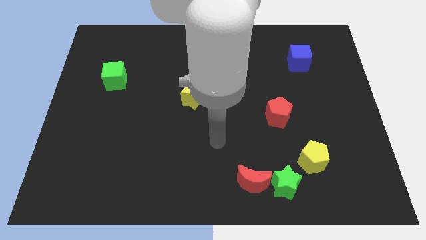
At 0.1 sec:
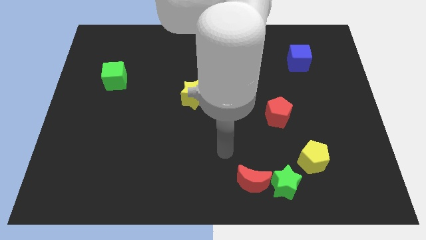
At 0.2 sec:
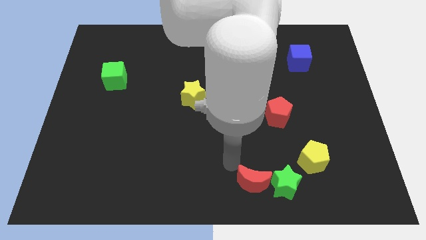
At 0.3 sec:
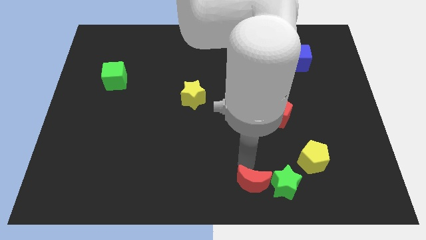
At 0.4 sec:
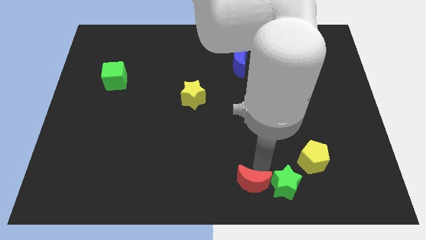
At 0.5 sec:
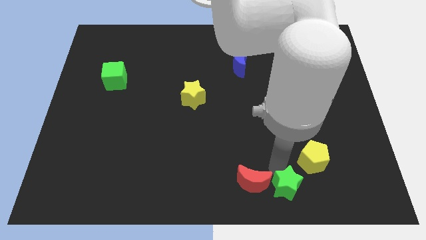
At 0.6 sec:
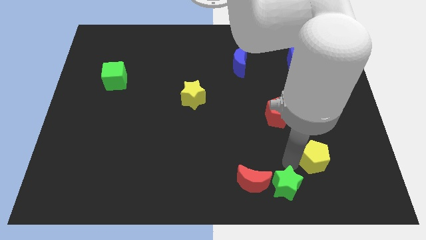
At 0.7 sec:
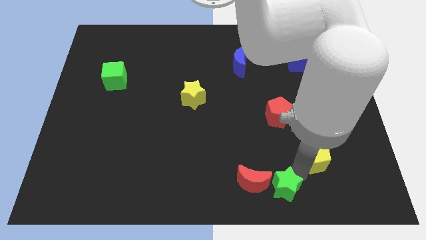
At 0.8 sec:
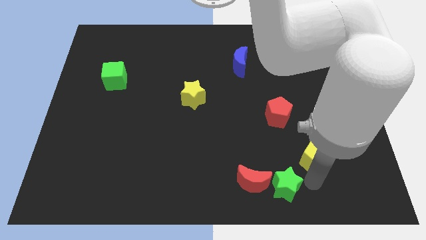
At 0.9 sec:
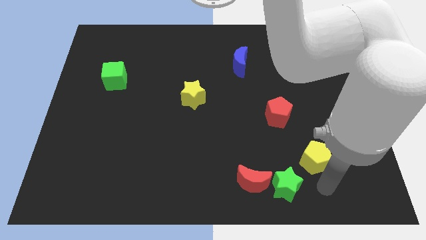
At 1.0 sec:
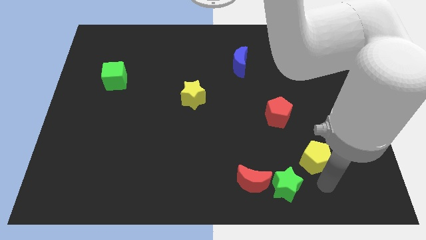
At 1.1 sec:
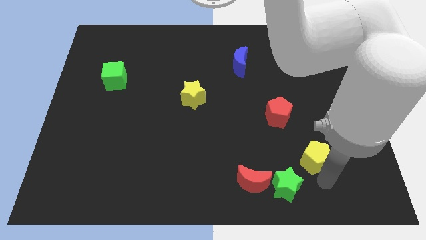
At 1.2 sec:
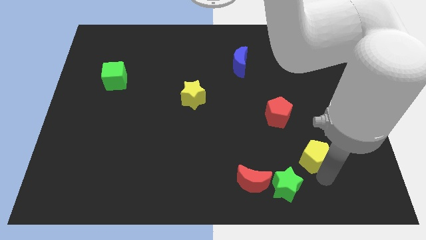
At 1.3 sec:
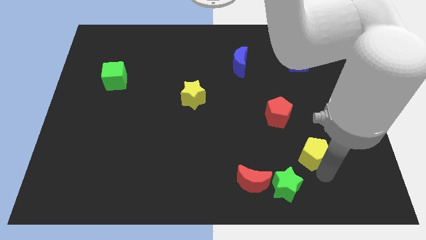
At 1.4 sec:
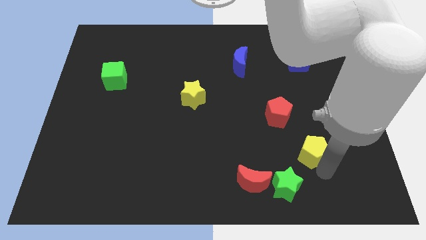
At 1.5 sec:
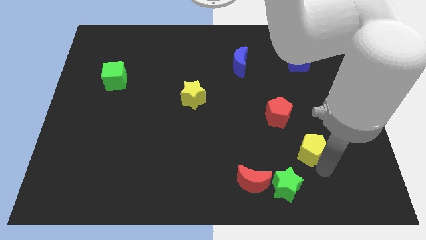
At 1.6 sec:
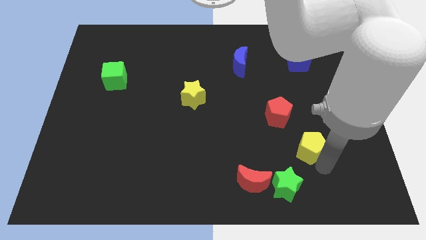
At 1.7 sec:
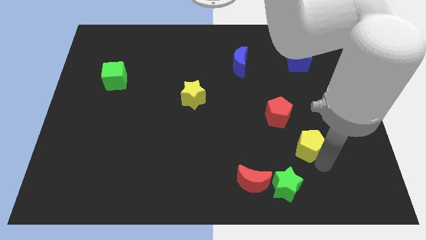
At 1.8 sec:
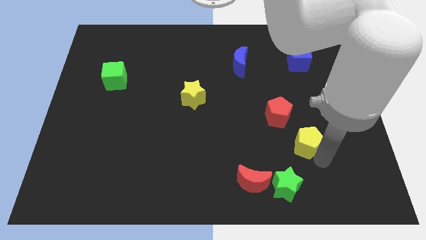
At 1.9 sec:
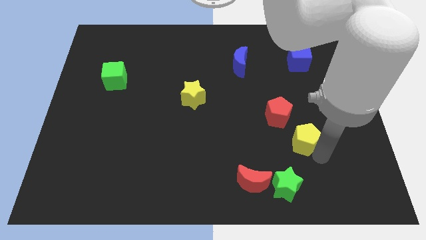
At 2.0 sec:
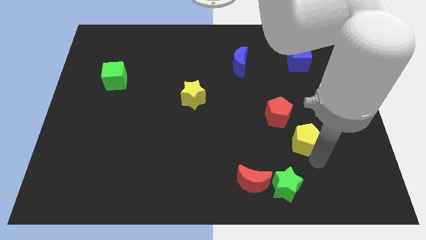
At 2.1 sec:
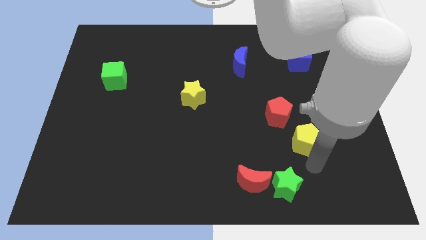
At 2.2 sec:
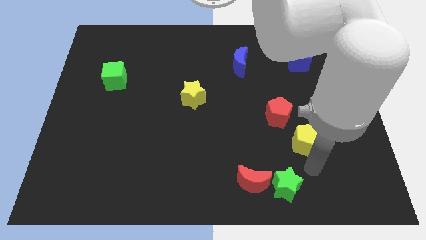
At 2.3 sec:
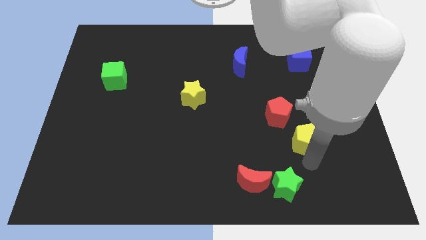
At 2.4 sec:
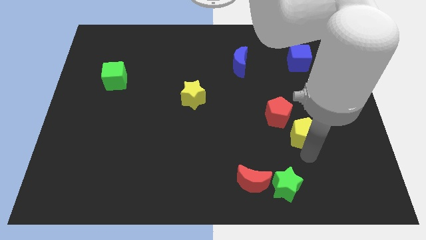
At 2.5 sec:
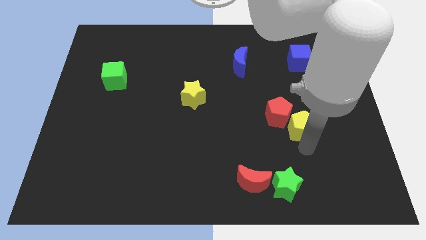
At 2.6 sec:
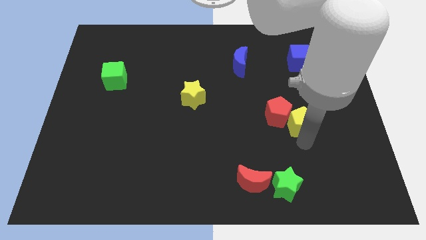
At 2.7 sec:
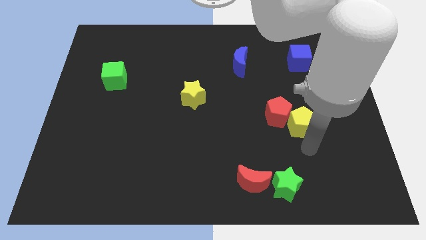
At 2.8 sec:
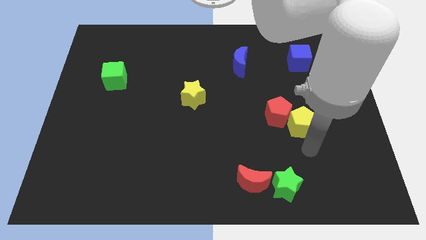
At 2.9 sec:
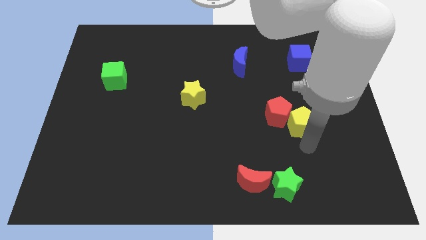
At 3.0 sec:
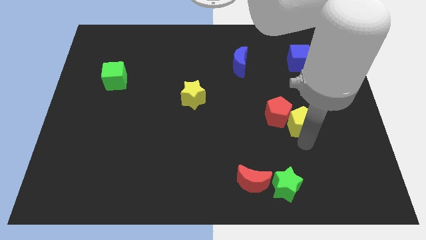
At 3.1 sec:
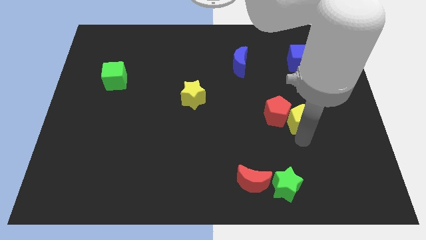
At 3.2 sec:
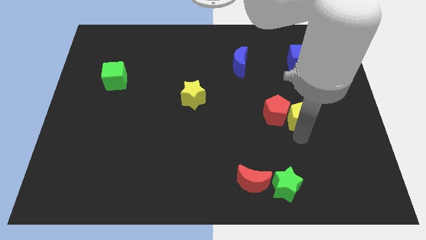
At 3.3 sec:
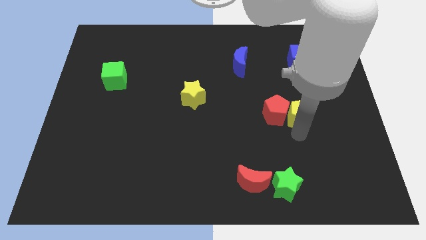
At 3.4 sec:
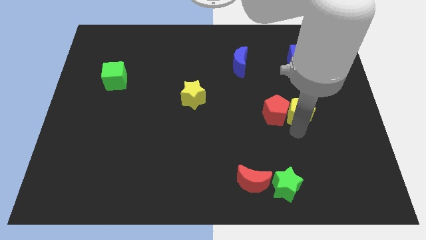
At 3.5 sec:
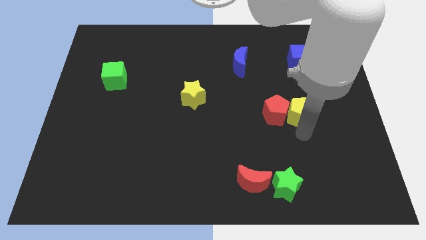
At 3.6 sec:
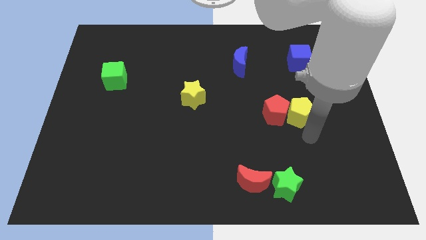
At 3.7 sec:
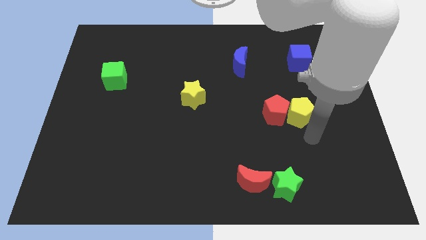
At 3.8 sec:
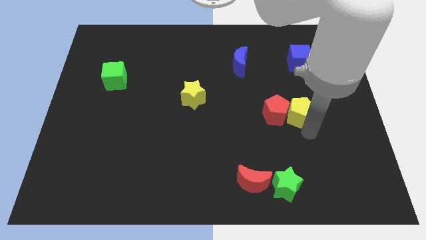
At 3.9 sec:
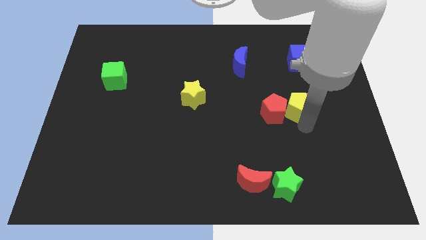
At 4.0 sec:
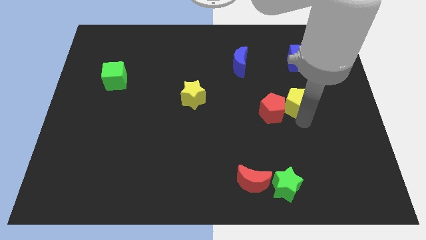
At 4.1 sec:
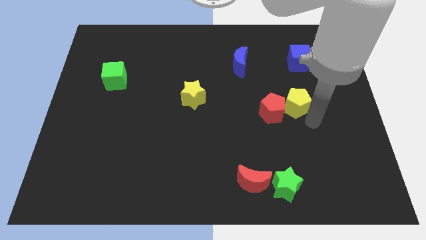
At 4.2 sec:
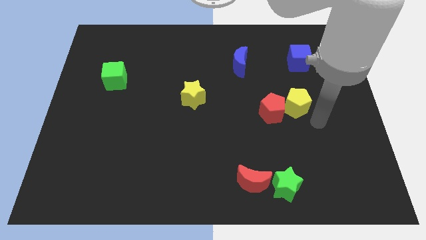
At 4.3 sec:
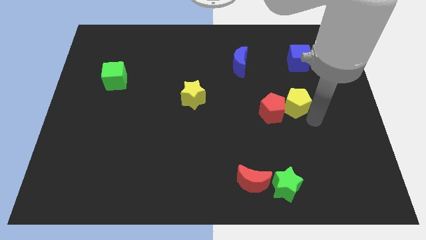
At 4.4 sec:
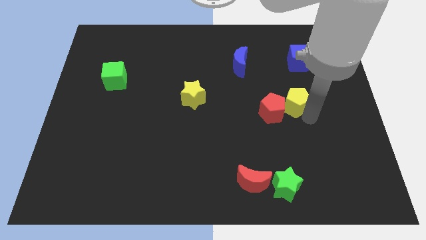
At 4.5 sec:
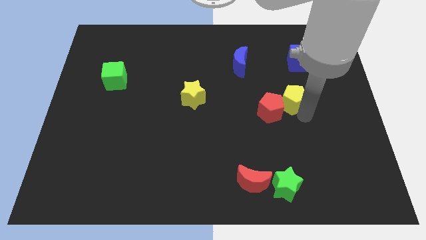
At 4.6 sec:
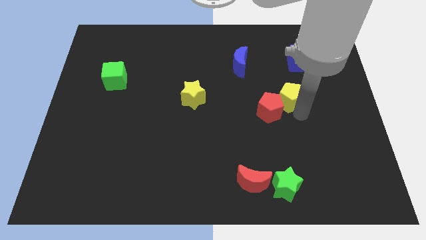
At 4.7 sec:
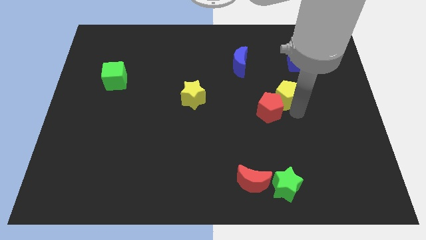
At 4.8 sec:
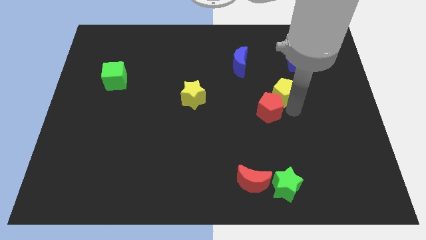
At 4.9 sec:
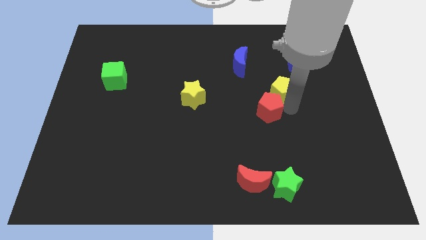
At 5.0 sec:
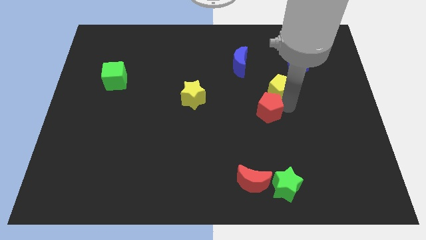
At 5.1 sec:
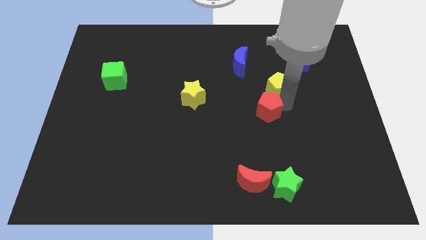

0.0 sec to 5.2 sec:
push the yellow pentagon to the bottom right side of the blue moon

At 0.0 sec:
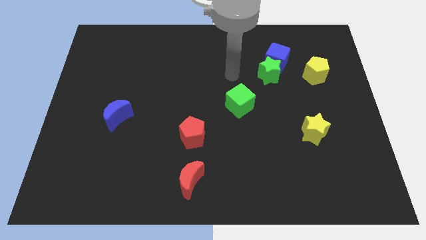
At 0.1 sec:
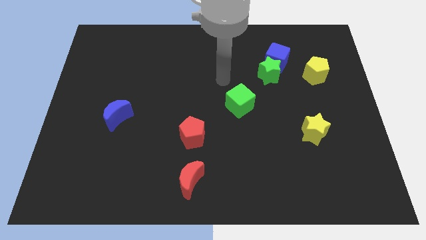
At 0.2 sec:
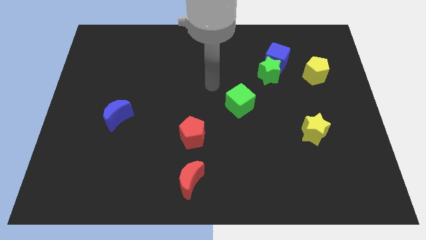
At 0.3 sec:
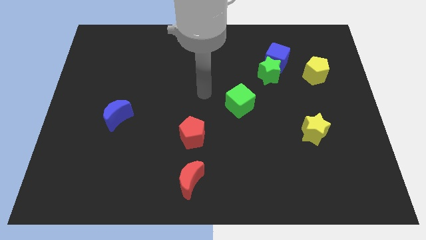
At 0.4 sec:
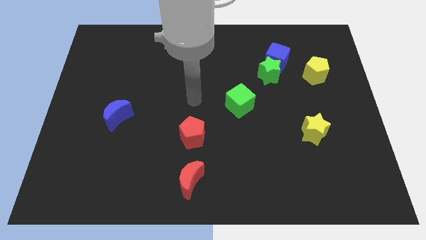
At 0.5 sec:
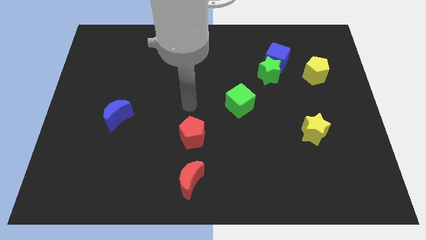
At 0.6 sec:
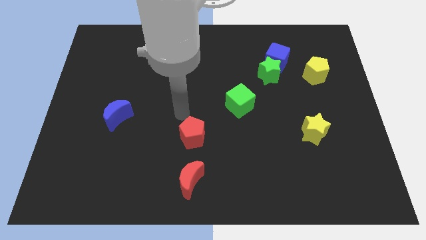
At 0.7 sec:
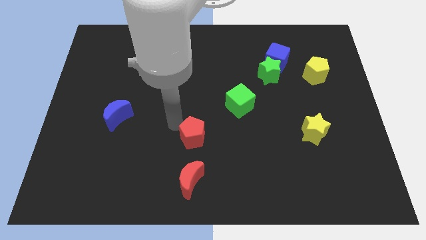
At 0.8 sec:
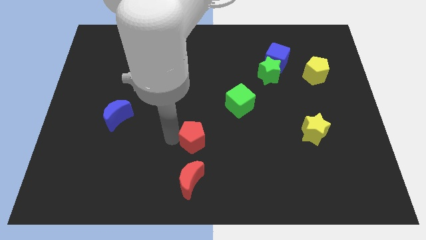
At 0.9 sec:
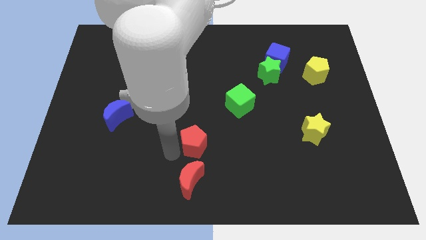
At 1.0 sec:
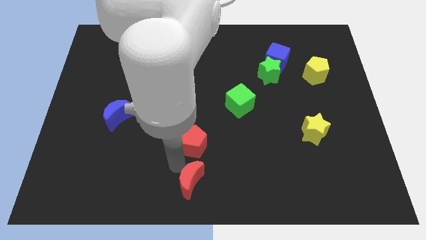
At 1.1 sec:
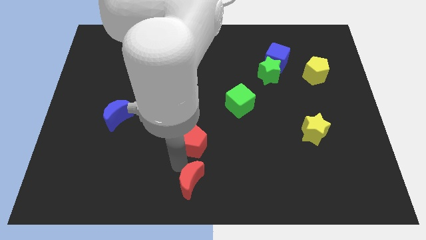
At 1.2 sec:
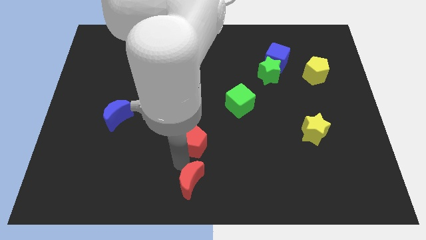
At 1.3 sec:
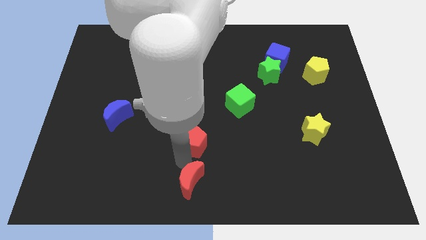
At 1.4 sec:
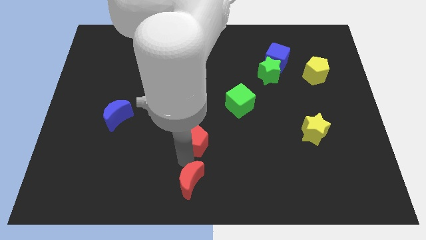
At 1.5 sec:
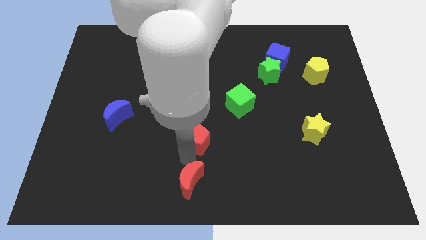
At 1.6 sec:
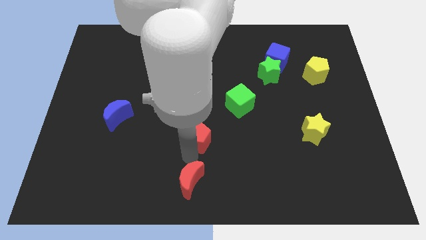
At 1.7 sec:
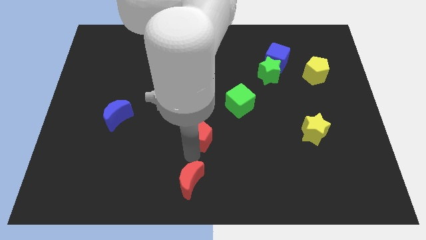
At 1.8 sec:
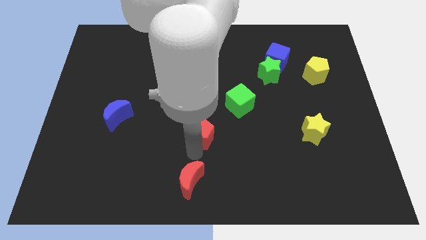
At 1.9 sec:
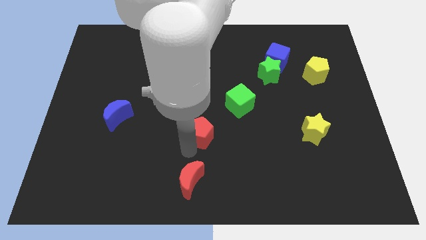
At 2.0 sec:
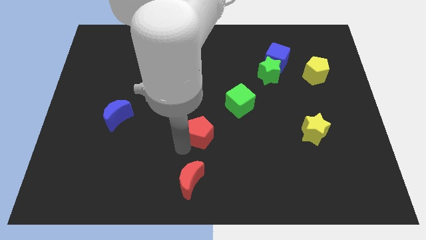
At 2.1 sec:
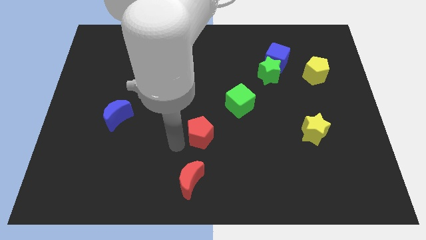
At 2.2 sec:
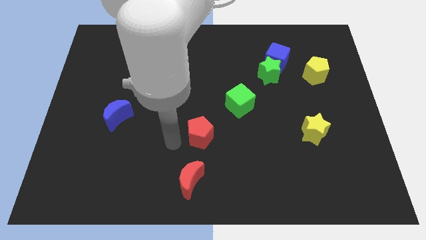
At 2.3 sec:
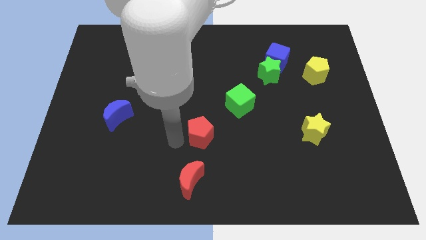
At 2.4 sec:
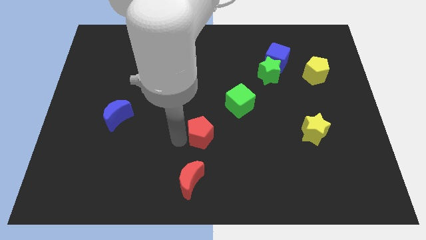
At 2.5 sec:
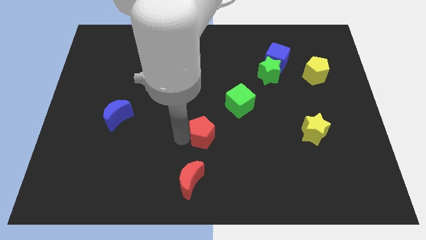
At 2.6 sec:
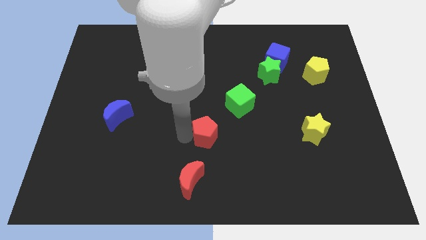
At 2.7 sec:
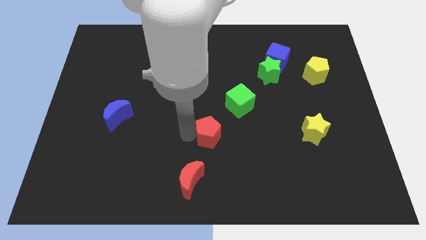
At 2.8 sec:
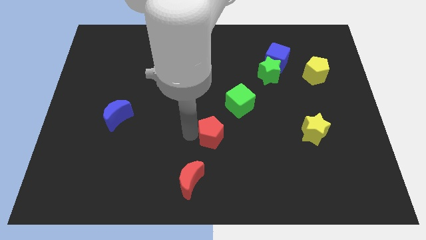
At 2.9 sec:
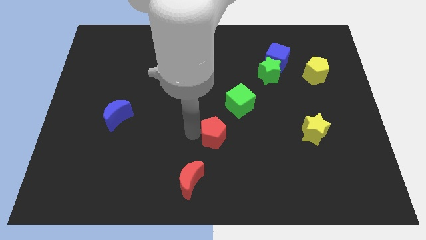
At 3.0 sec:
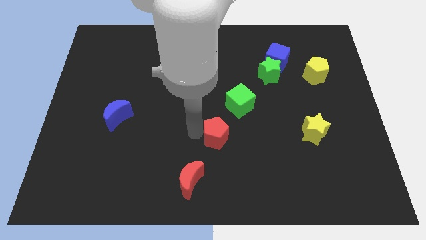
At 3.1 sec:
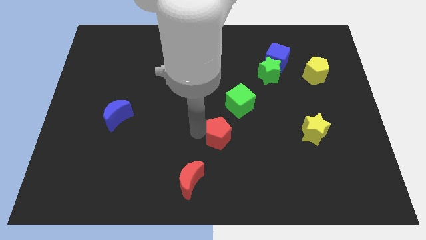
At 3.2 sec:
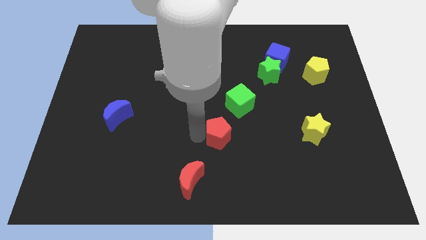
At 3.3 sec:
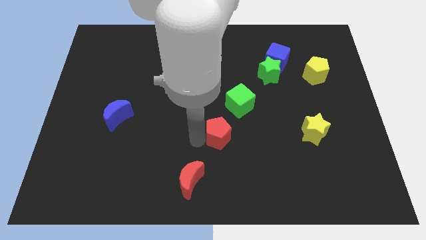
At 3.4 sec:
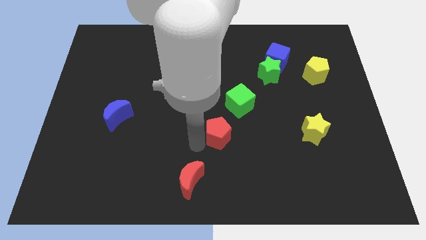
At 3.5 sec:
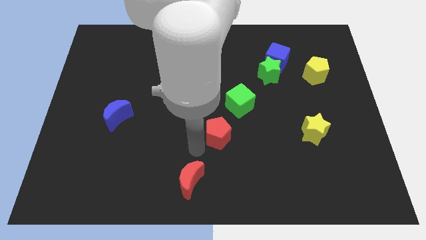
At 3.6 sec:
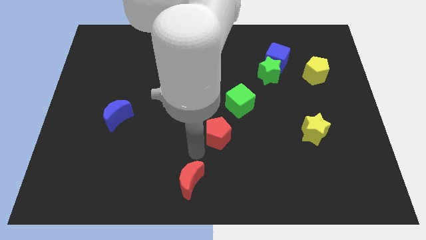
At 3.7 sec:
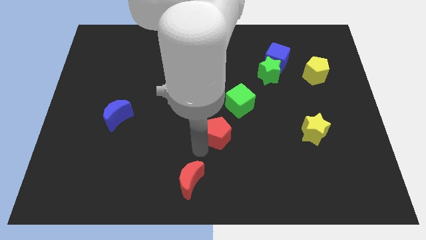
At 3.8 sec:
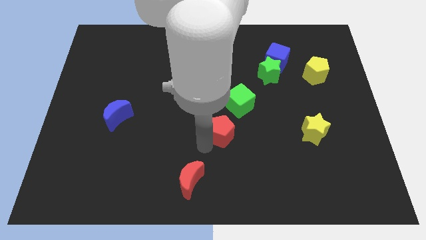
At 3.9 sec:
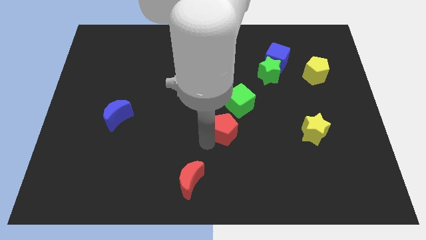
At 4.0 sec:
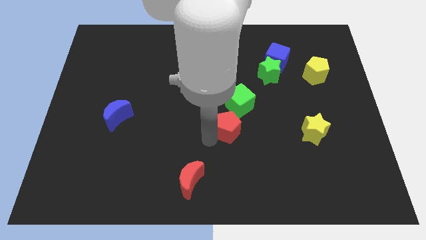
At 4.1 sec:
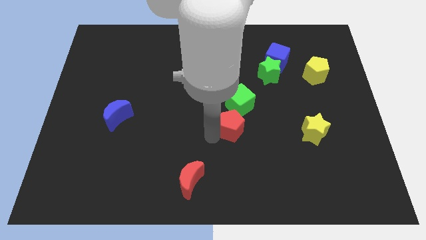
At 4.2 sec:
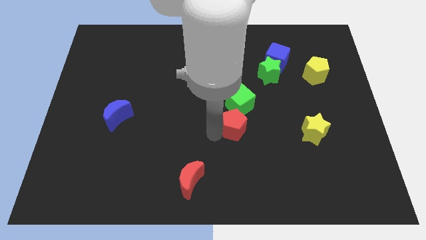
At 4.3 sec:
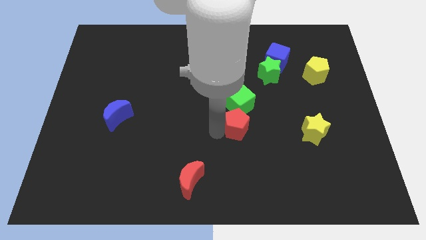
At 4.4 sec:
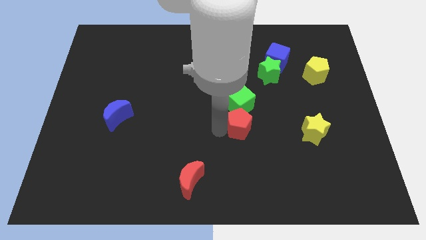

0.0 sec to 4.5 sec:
move the red pentagon to the bottom right of the green cube
